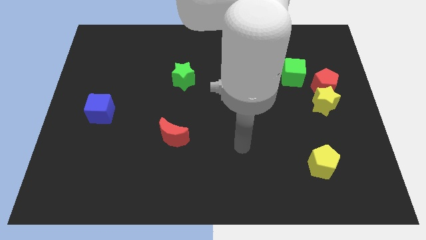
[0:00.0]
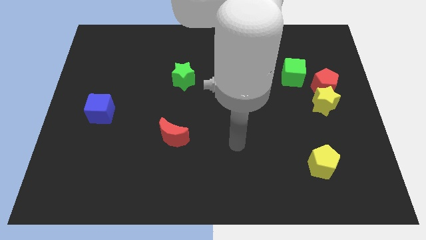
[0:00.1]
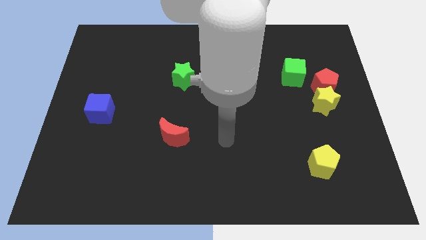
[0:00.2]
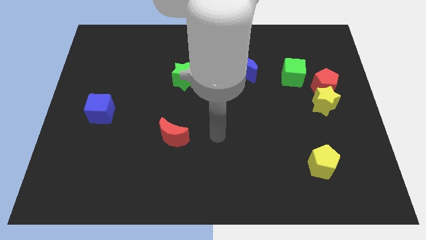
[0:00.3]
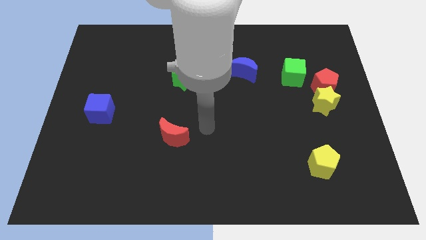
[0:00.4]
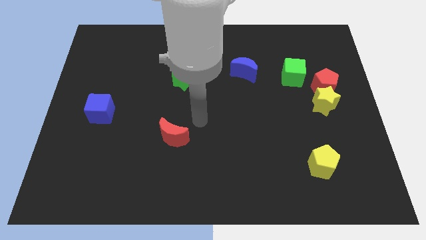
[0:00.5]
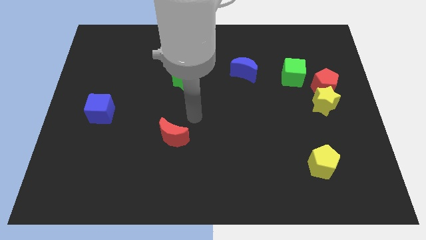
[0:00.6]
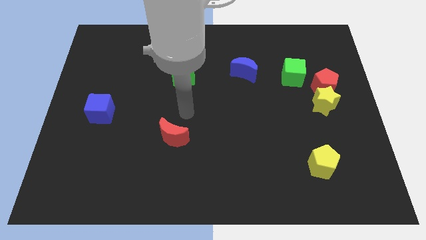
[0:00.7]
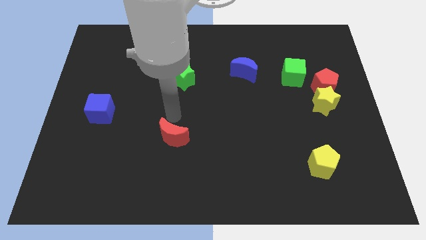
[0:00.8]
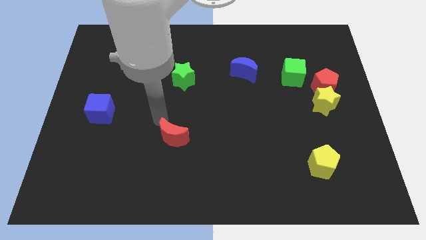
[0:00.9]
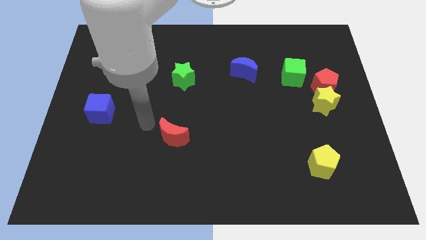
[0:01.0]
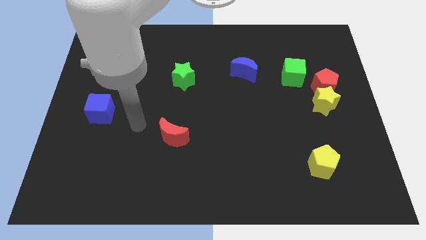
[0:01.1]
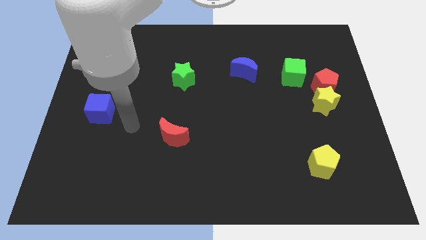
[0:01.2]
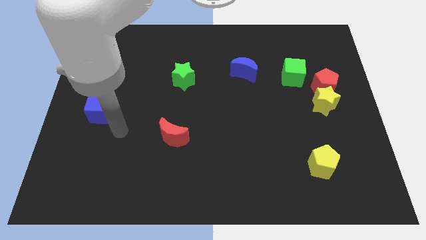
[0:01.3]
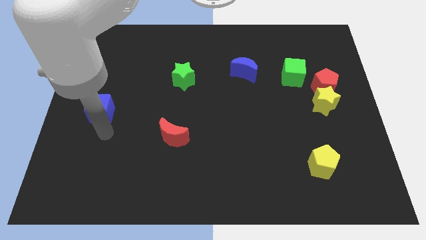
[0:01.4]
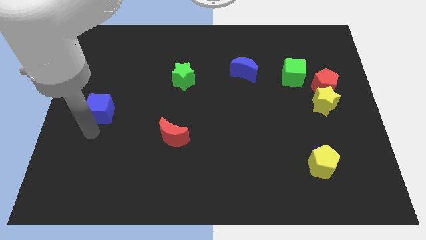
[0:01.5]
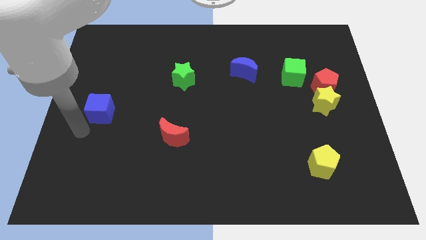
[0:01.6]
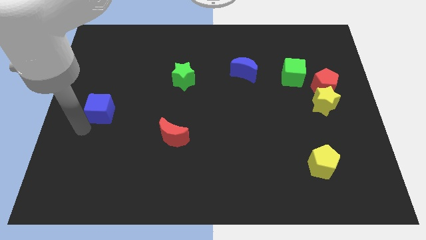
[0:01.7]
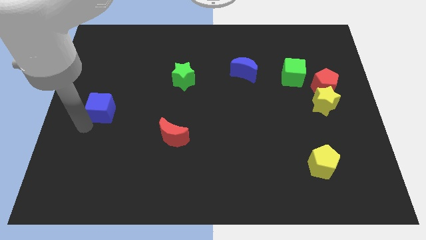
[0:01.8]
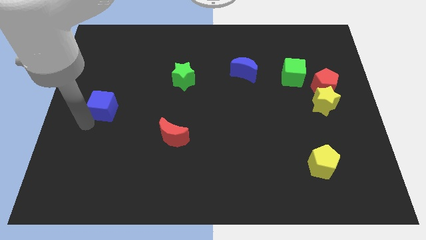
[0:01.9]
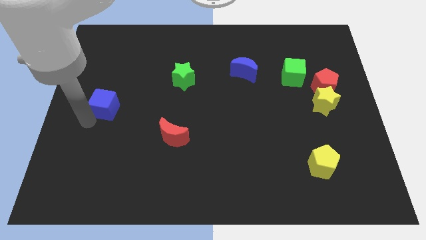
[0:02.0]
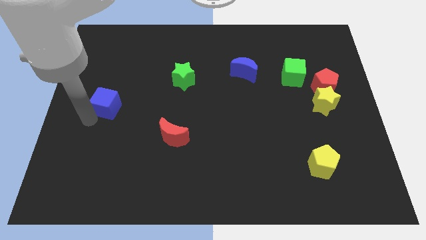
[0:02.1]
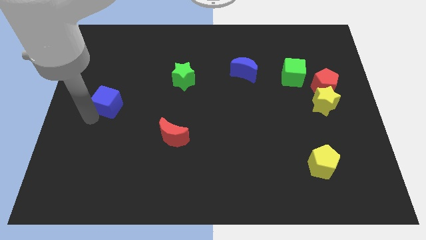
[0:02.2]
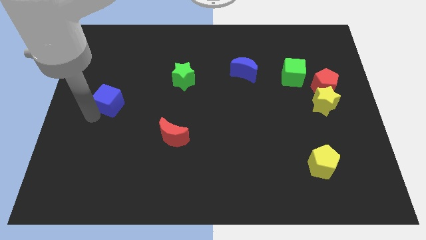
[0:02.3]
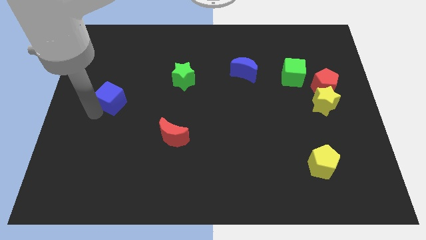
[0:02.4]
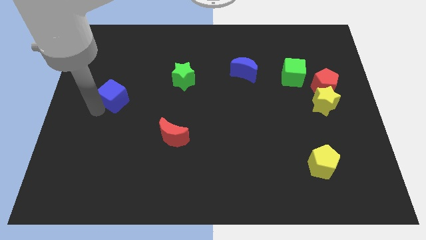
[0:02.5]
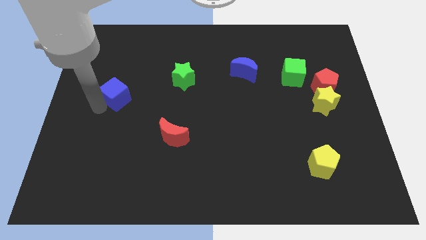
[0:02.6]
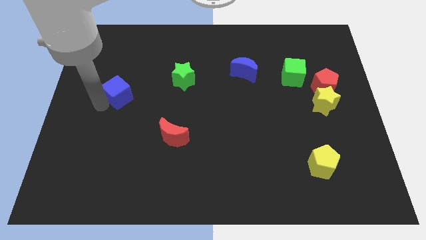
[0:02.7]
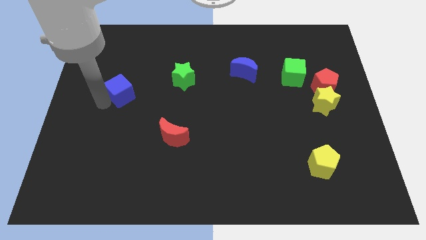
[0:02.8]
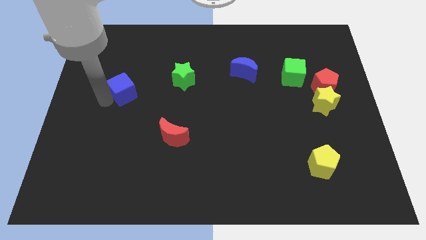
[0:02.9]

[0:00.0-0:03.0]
move the blue cube slightly diagonally upwards and right

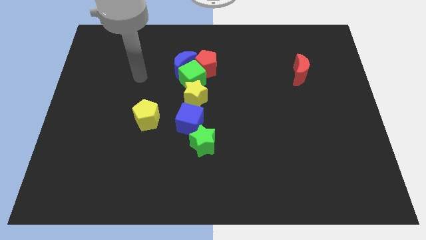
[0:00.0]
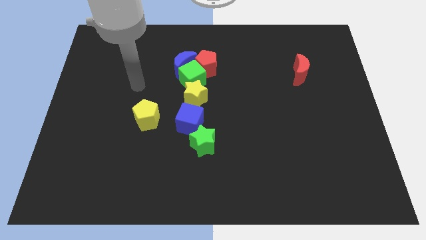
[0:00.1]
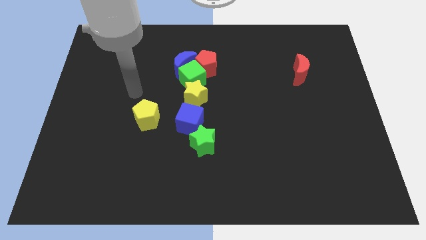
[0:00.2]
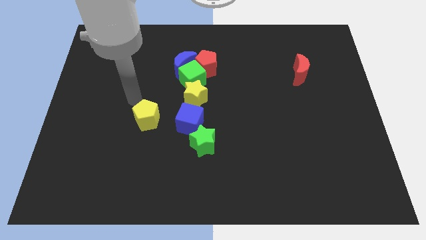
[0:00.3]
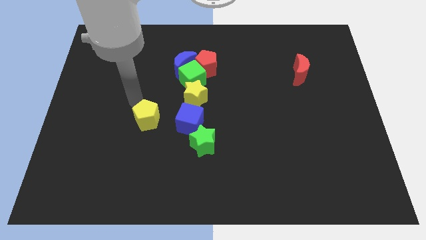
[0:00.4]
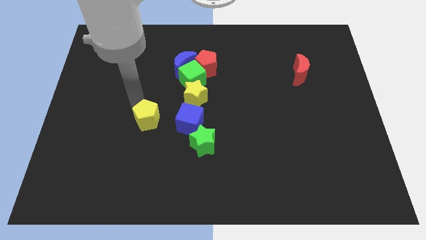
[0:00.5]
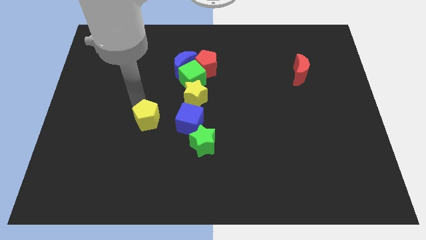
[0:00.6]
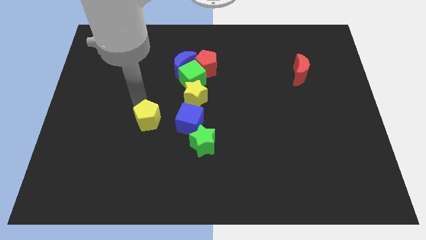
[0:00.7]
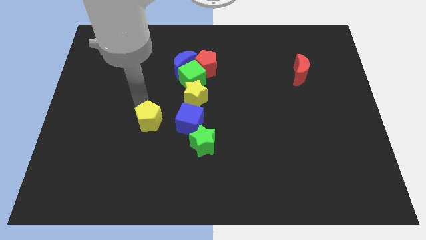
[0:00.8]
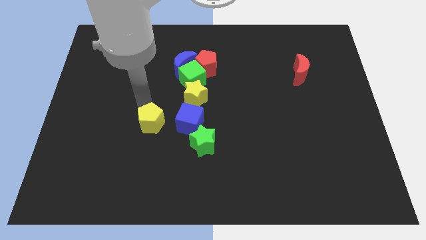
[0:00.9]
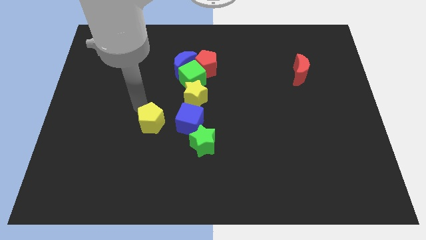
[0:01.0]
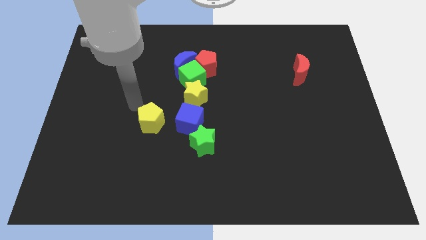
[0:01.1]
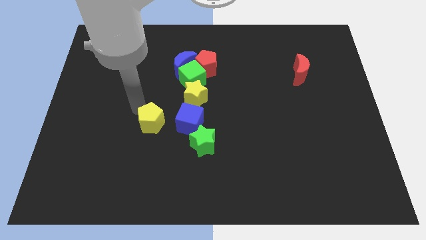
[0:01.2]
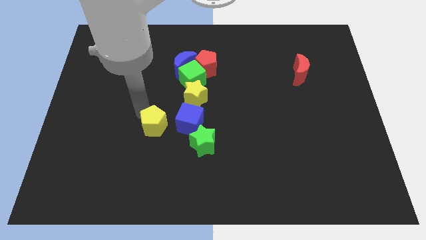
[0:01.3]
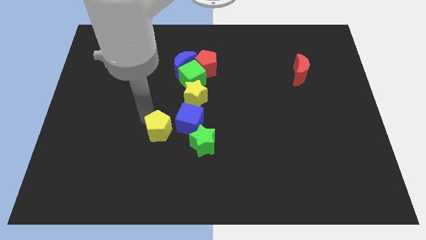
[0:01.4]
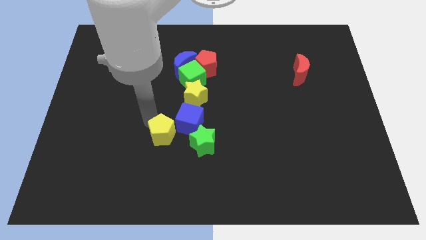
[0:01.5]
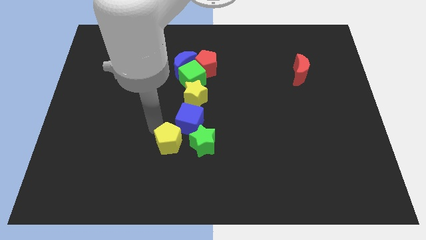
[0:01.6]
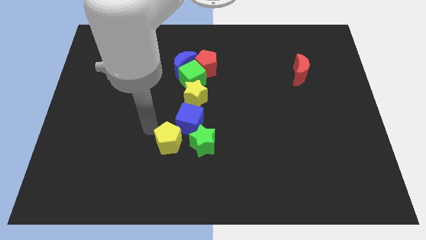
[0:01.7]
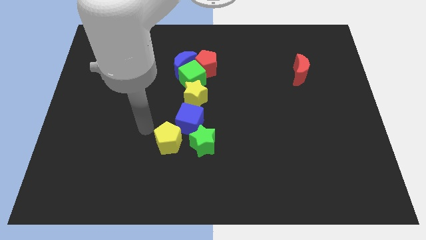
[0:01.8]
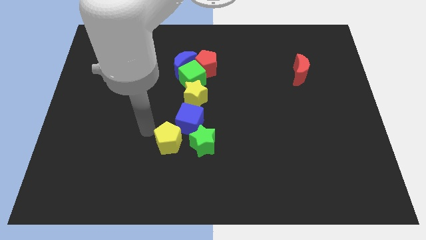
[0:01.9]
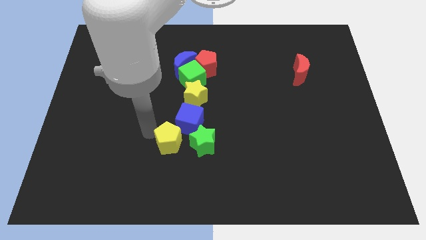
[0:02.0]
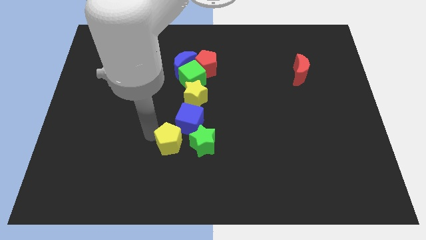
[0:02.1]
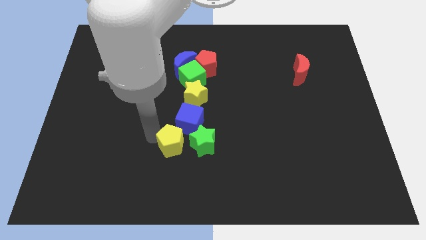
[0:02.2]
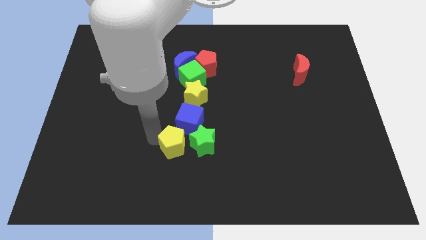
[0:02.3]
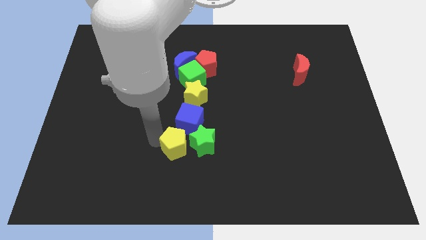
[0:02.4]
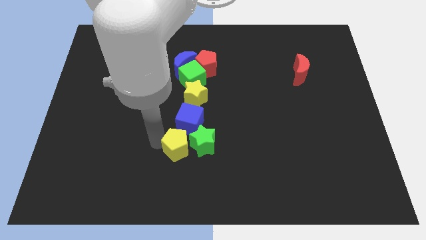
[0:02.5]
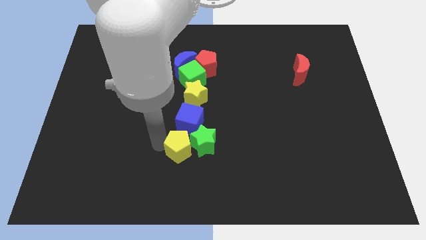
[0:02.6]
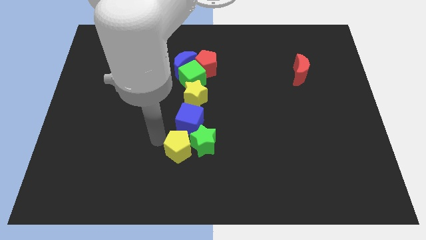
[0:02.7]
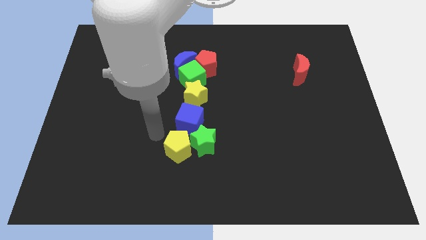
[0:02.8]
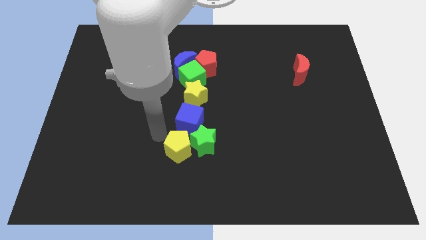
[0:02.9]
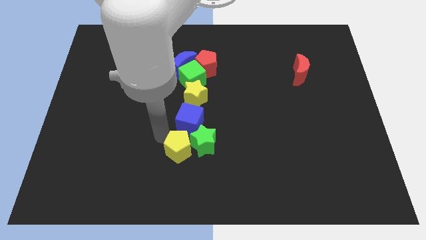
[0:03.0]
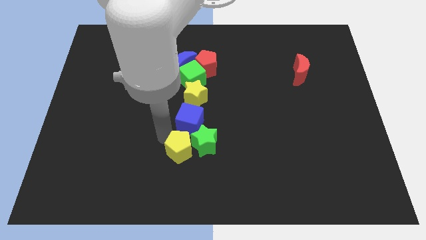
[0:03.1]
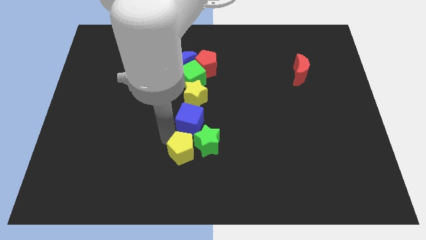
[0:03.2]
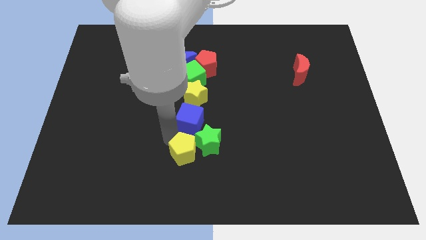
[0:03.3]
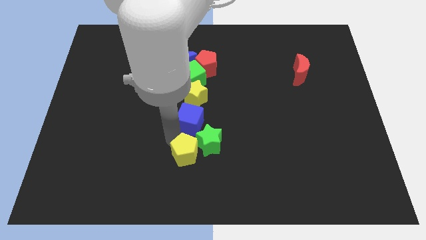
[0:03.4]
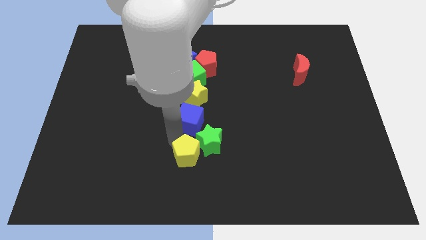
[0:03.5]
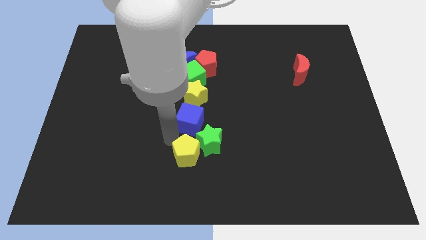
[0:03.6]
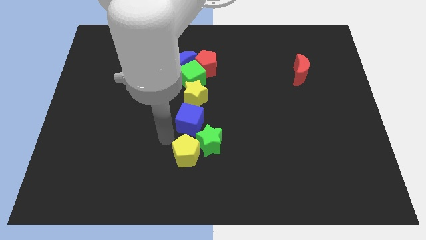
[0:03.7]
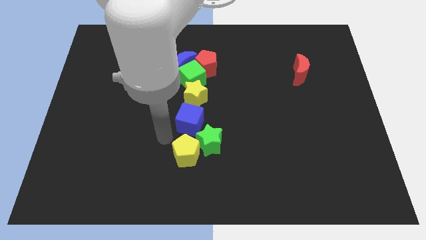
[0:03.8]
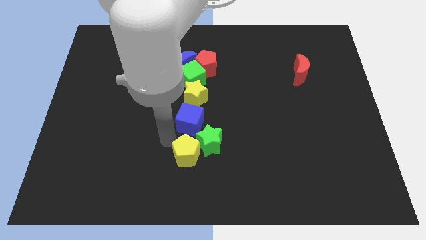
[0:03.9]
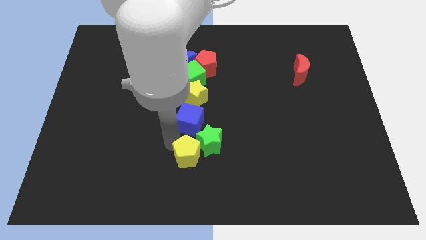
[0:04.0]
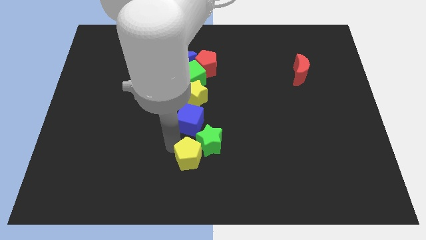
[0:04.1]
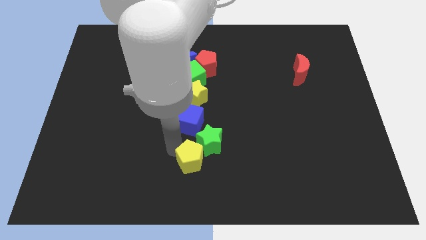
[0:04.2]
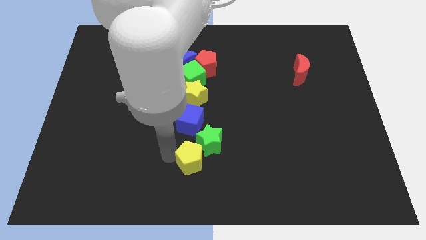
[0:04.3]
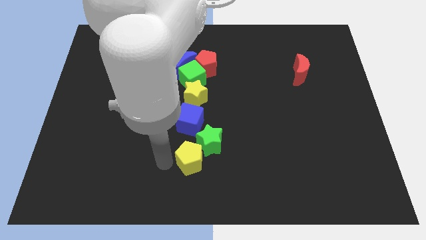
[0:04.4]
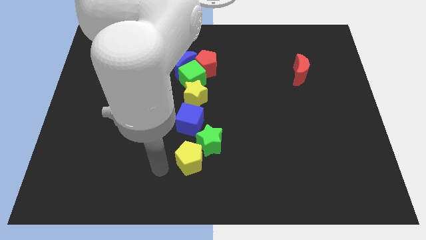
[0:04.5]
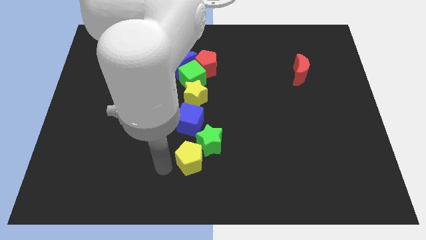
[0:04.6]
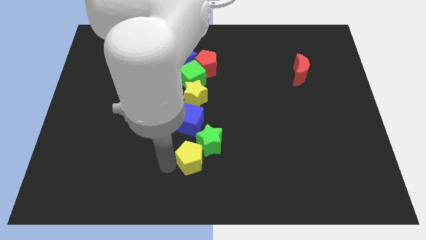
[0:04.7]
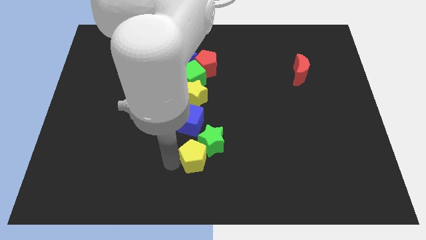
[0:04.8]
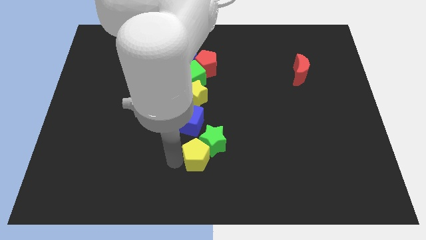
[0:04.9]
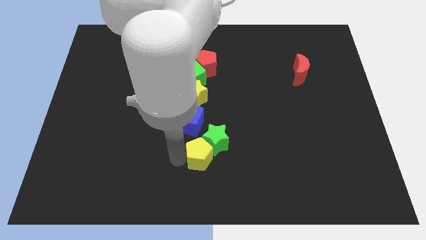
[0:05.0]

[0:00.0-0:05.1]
move the yellow pentagon somewhat right

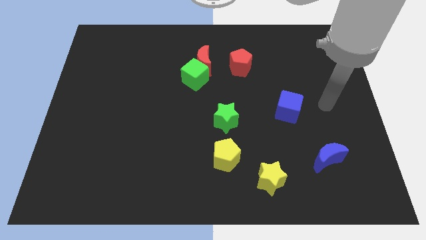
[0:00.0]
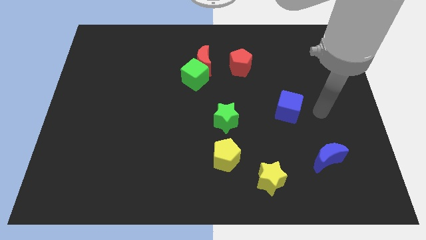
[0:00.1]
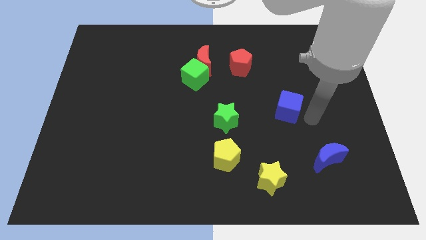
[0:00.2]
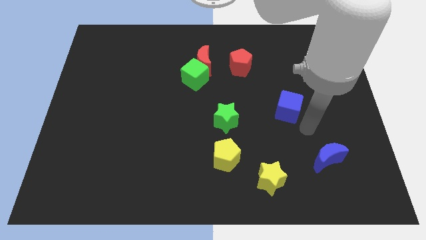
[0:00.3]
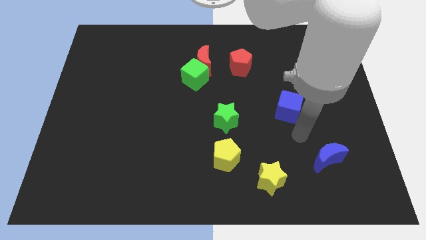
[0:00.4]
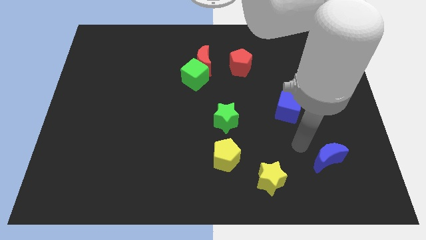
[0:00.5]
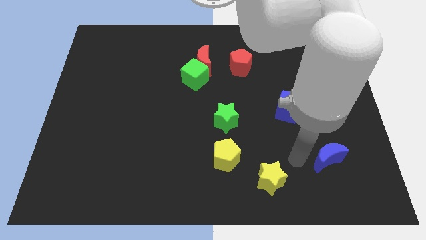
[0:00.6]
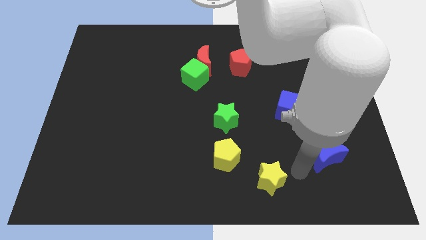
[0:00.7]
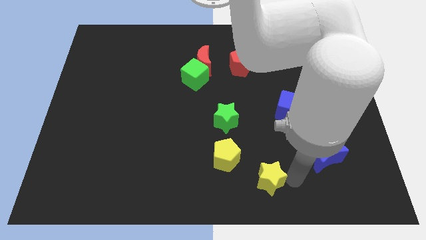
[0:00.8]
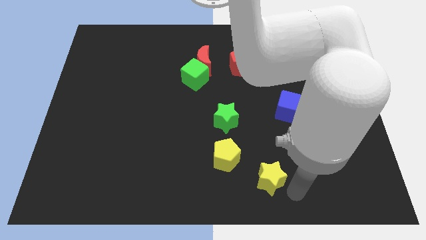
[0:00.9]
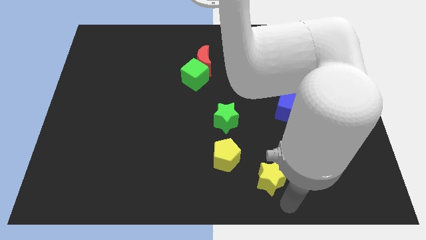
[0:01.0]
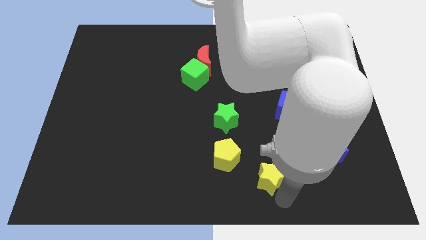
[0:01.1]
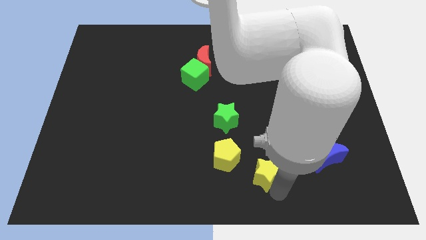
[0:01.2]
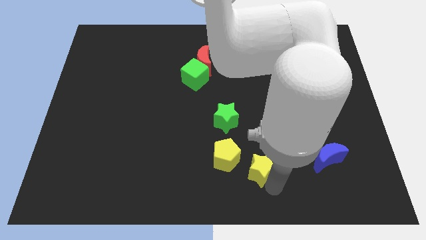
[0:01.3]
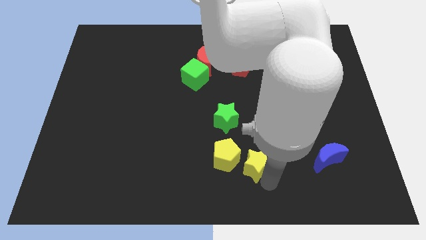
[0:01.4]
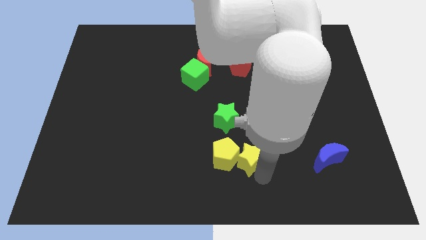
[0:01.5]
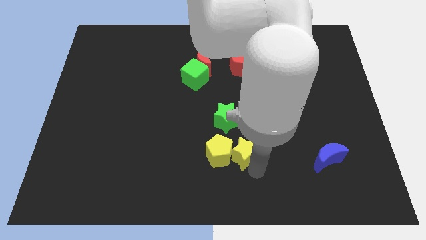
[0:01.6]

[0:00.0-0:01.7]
push the yellow star a little bit up and to the left
